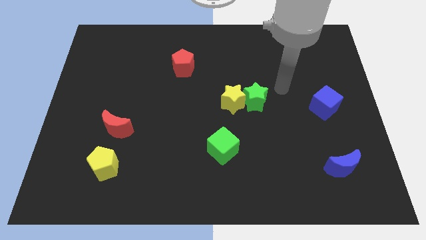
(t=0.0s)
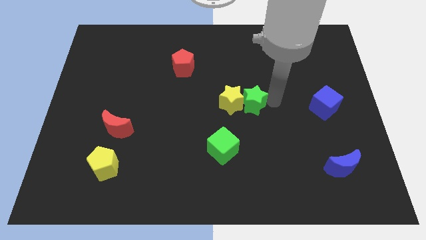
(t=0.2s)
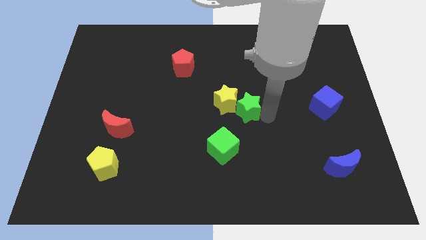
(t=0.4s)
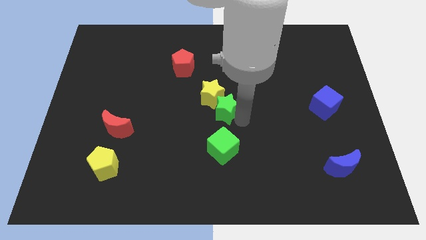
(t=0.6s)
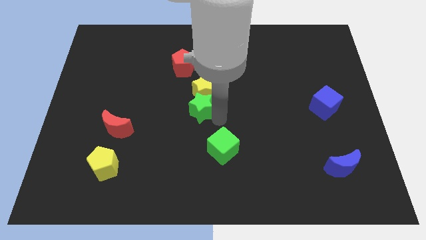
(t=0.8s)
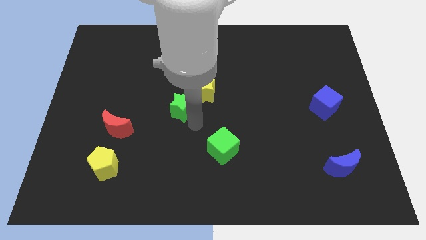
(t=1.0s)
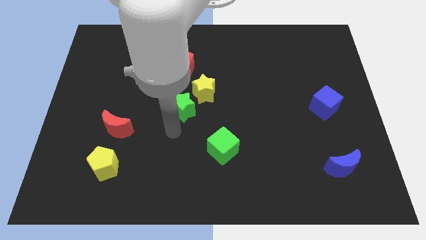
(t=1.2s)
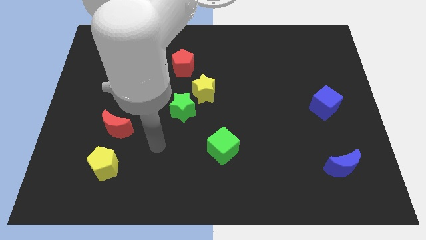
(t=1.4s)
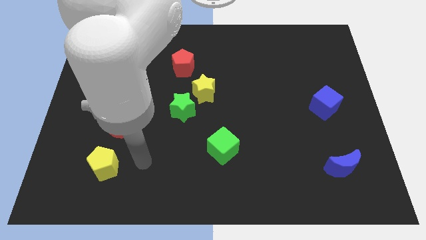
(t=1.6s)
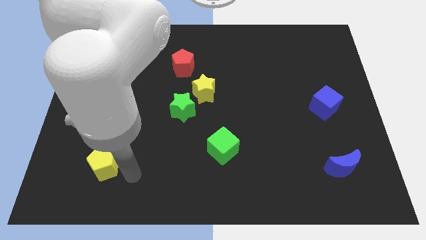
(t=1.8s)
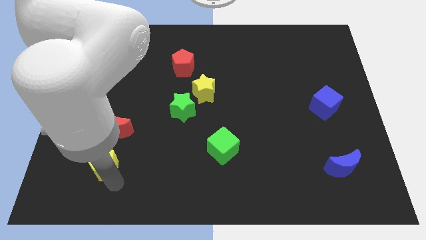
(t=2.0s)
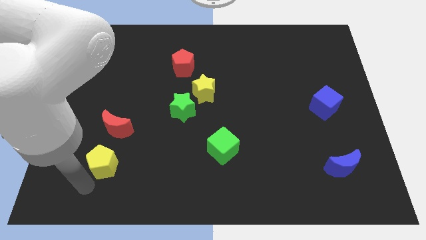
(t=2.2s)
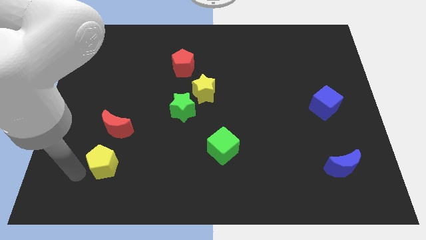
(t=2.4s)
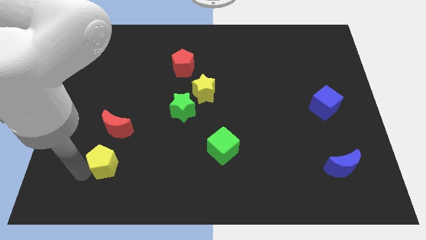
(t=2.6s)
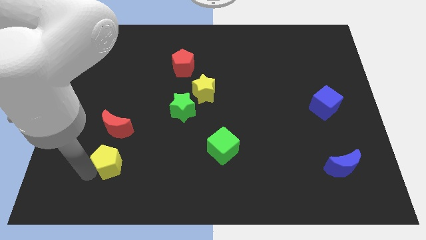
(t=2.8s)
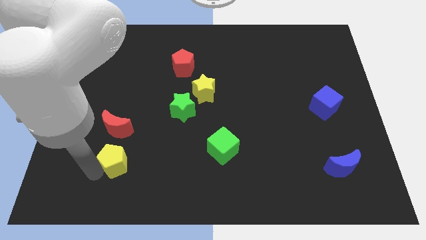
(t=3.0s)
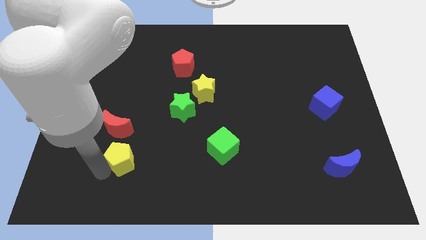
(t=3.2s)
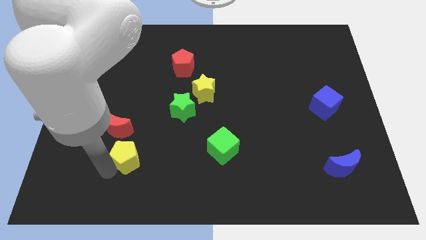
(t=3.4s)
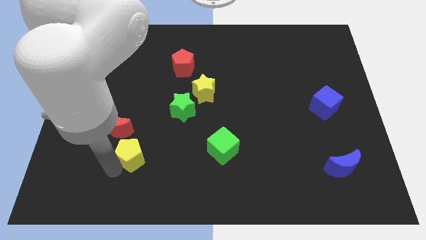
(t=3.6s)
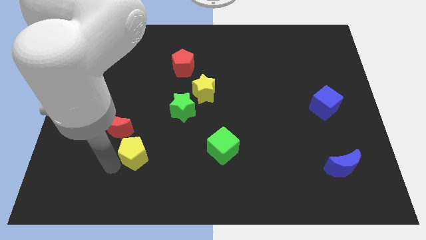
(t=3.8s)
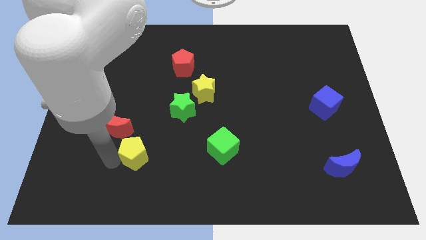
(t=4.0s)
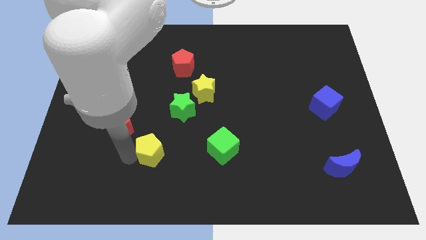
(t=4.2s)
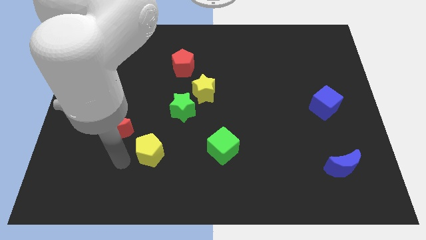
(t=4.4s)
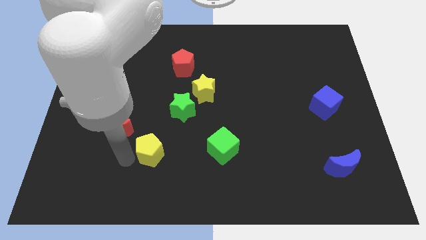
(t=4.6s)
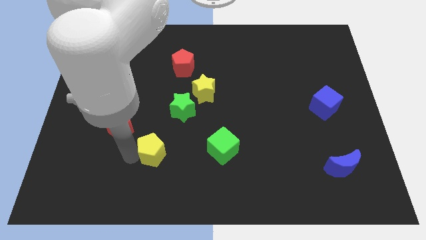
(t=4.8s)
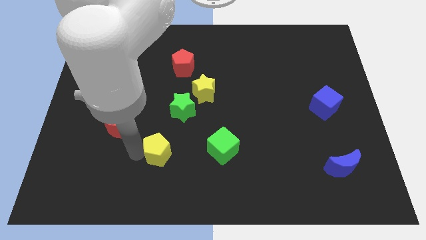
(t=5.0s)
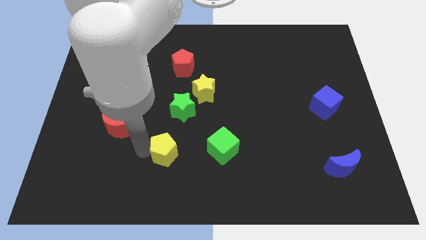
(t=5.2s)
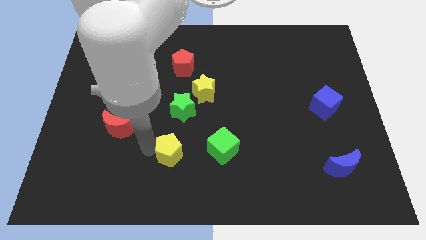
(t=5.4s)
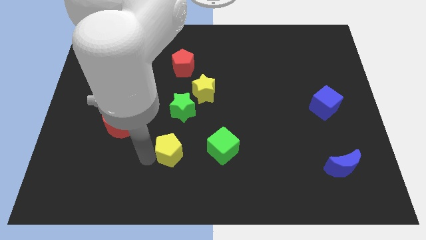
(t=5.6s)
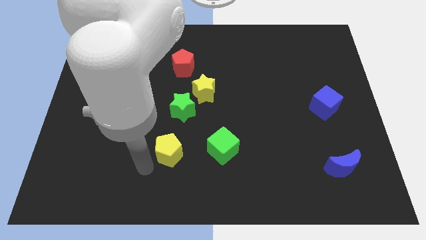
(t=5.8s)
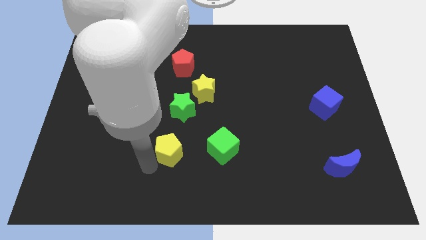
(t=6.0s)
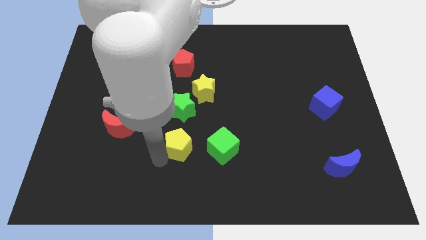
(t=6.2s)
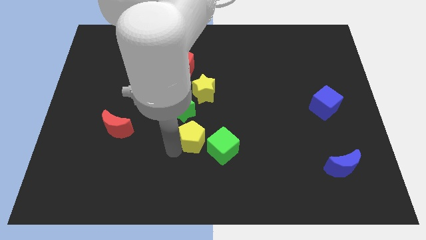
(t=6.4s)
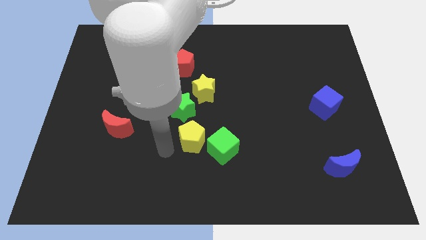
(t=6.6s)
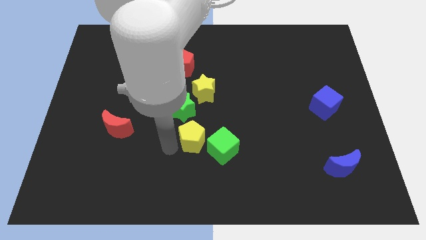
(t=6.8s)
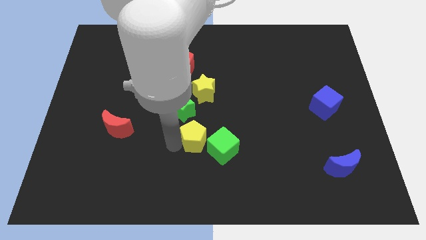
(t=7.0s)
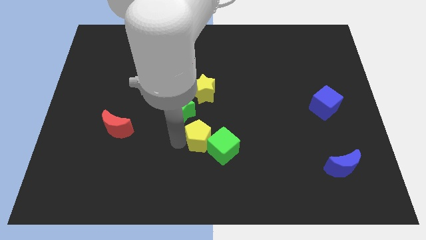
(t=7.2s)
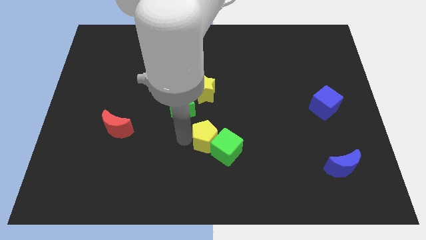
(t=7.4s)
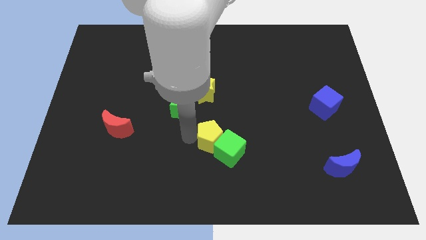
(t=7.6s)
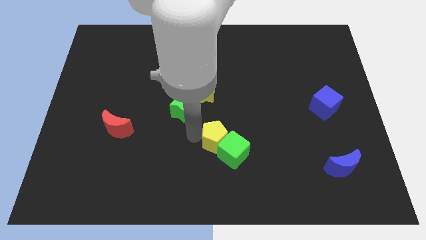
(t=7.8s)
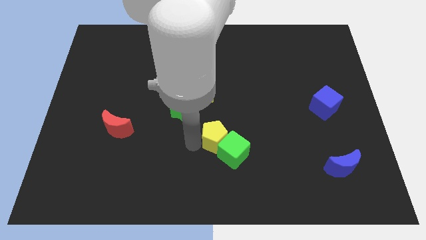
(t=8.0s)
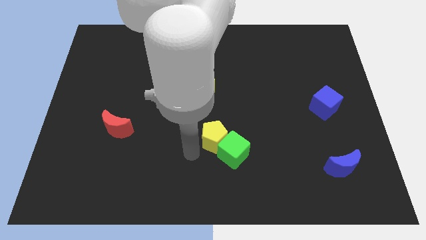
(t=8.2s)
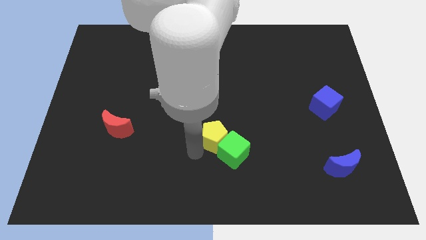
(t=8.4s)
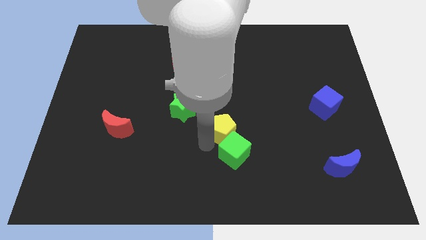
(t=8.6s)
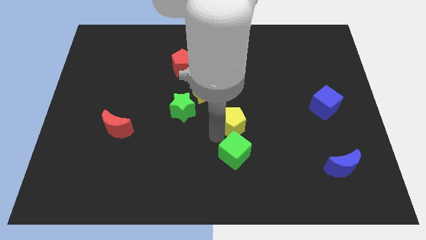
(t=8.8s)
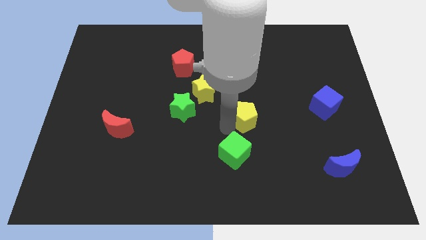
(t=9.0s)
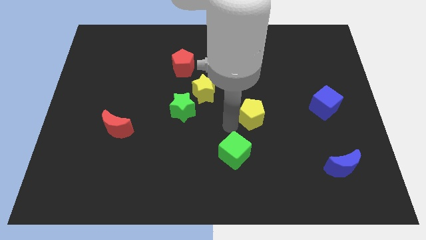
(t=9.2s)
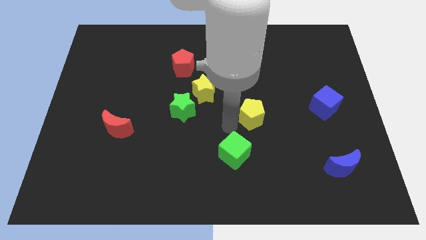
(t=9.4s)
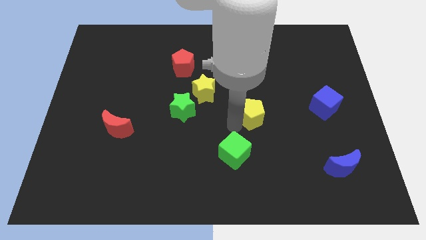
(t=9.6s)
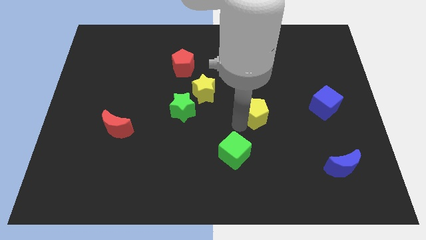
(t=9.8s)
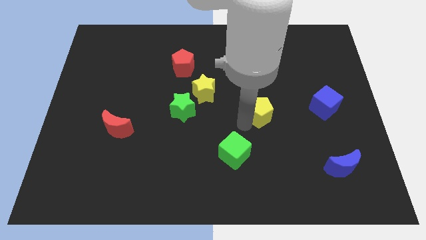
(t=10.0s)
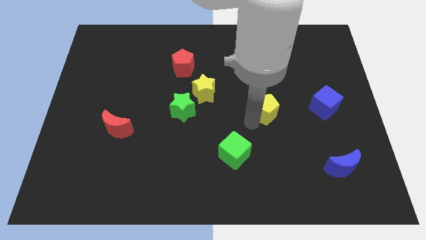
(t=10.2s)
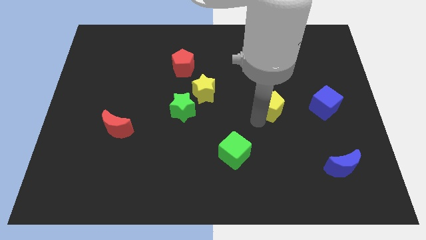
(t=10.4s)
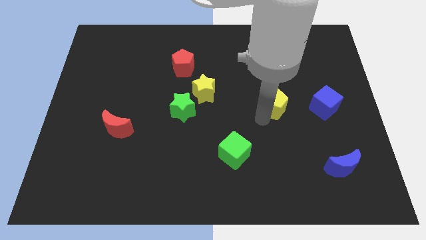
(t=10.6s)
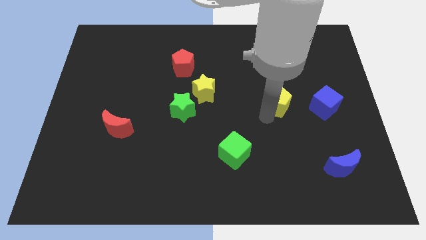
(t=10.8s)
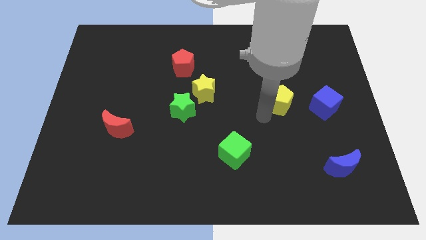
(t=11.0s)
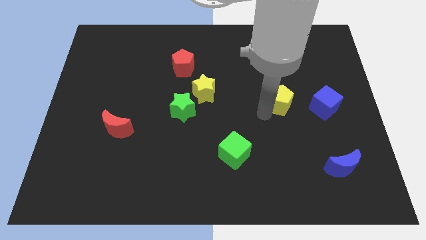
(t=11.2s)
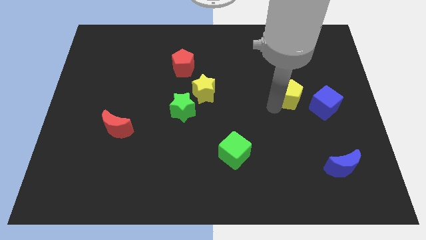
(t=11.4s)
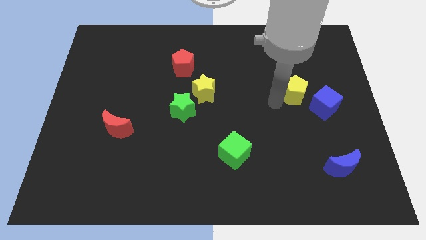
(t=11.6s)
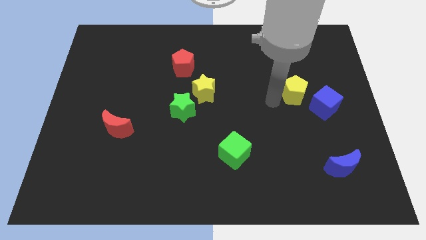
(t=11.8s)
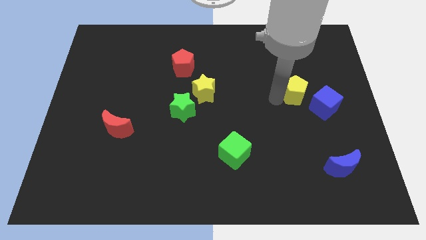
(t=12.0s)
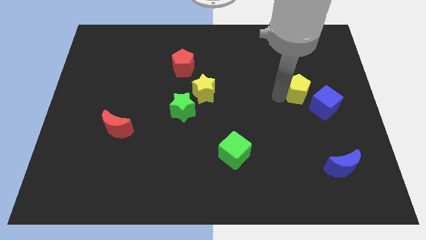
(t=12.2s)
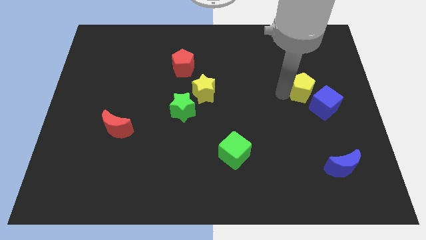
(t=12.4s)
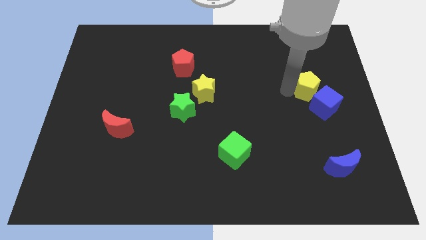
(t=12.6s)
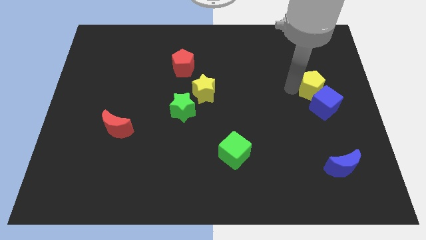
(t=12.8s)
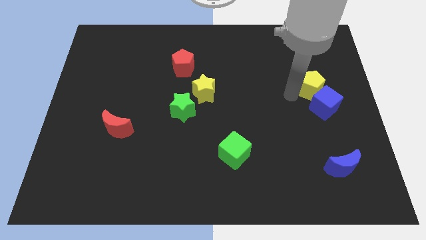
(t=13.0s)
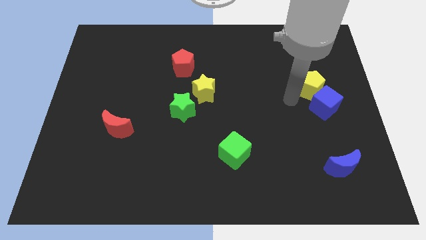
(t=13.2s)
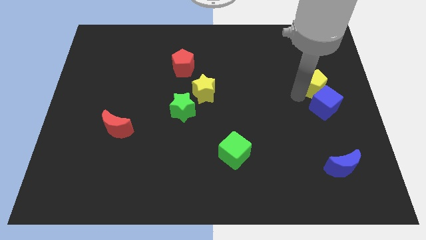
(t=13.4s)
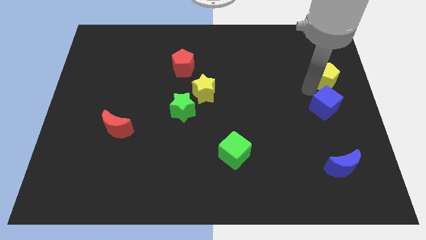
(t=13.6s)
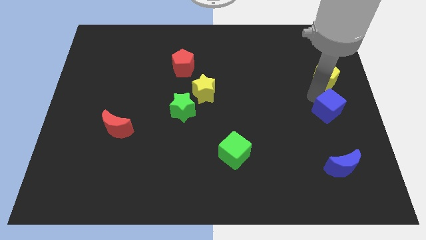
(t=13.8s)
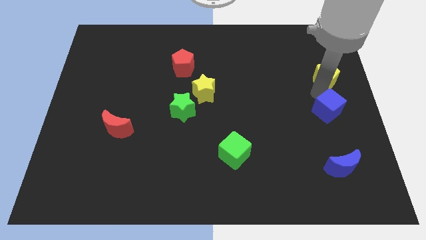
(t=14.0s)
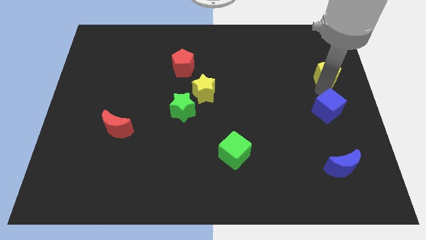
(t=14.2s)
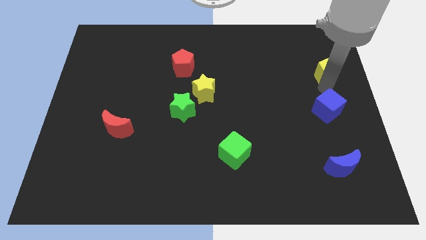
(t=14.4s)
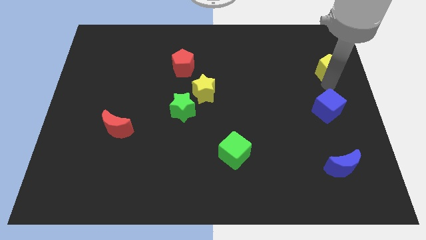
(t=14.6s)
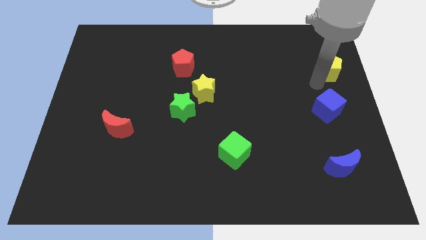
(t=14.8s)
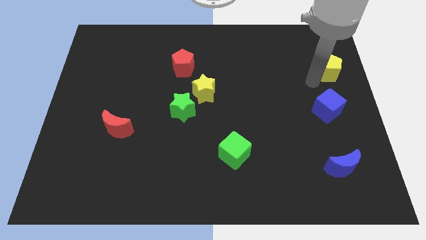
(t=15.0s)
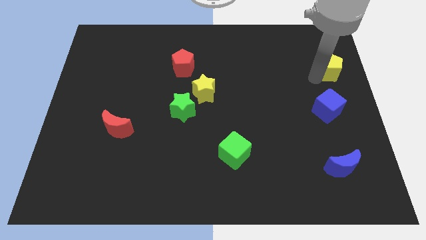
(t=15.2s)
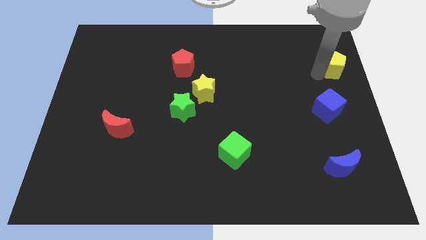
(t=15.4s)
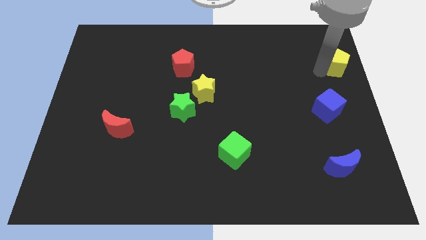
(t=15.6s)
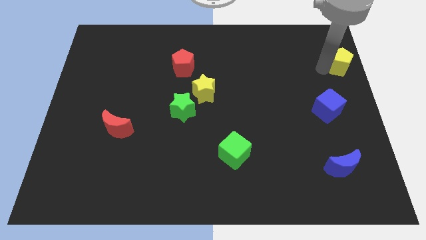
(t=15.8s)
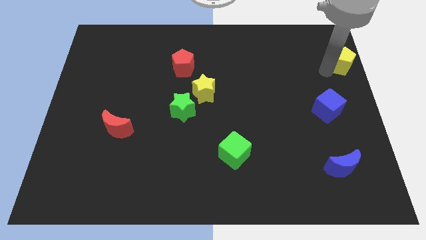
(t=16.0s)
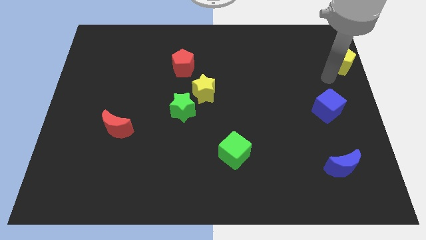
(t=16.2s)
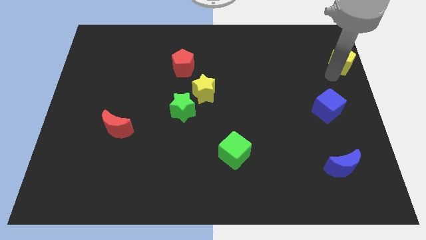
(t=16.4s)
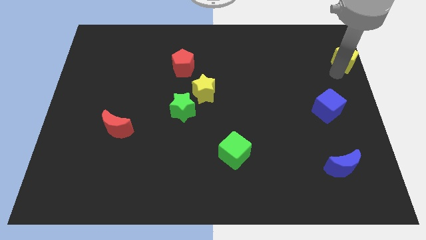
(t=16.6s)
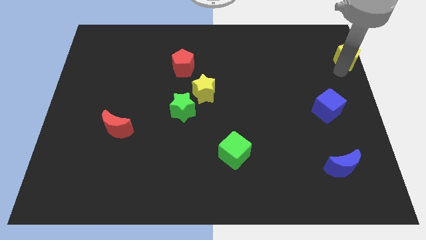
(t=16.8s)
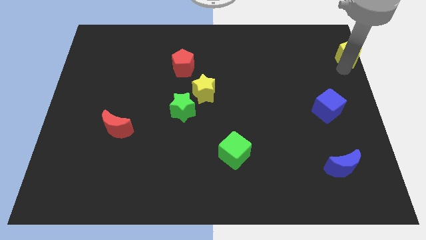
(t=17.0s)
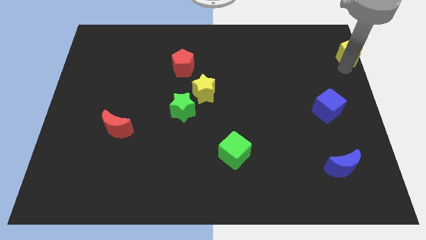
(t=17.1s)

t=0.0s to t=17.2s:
put the yellow pentagon to the upper right corner
